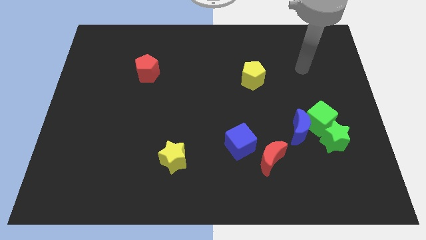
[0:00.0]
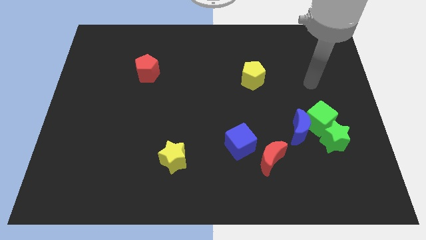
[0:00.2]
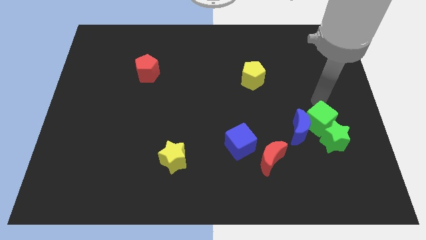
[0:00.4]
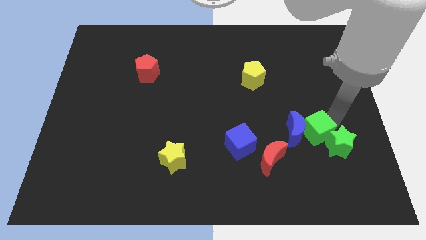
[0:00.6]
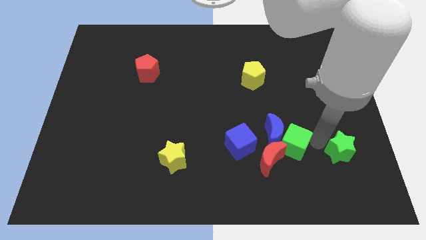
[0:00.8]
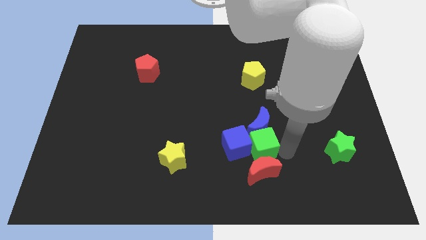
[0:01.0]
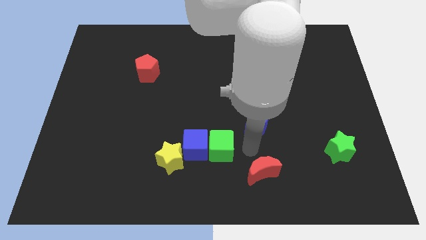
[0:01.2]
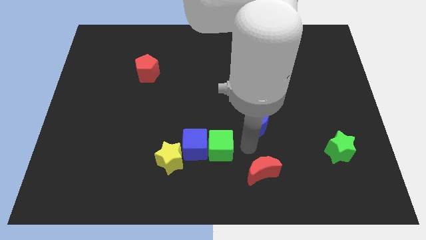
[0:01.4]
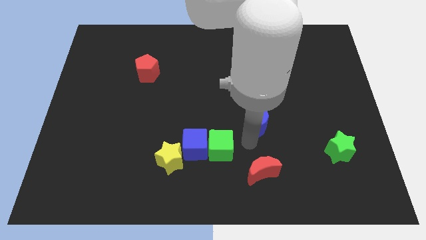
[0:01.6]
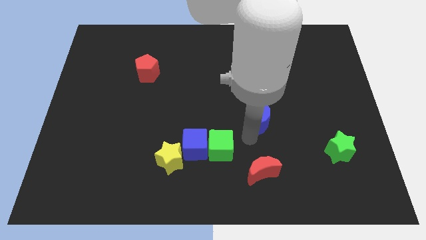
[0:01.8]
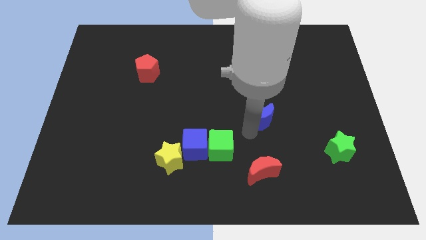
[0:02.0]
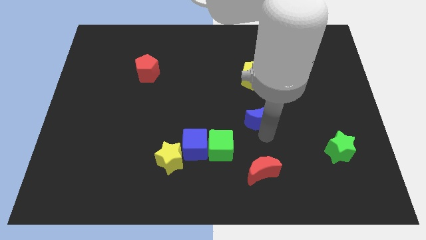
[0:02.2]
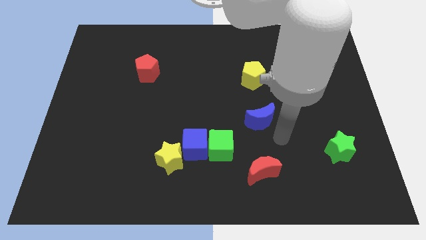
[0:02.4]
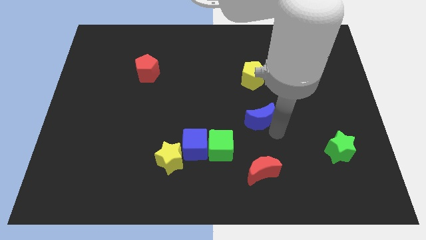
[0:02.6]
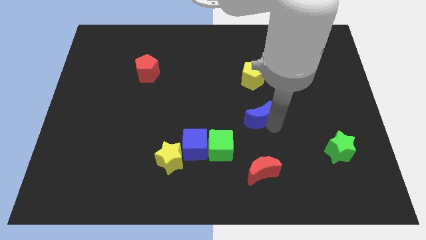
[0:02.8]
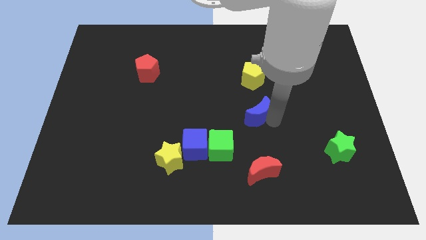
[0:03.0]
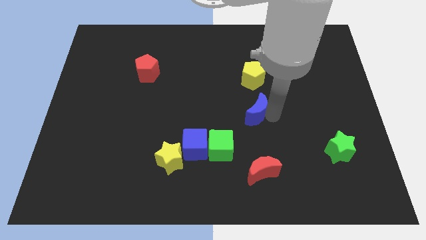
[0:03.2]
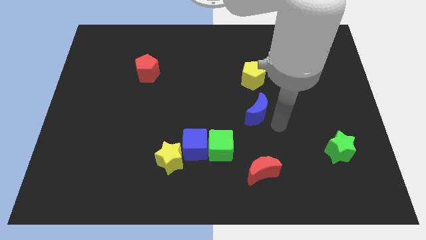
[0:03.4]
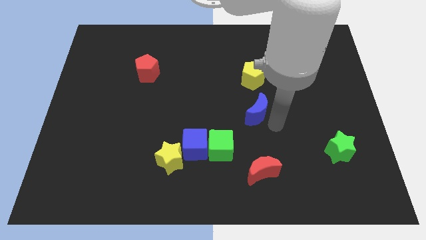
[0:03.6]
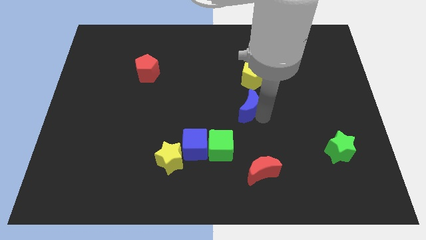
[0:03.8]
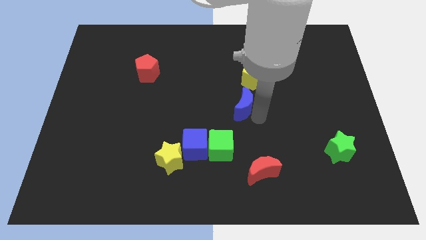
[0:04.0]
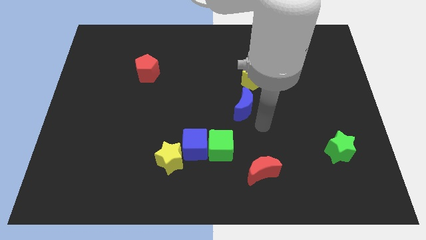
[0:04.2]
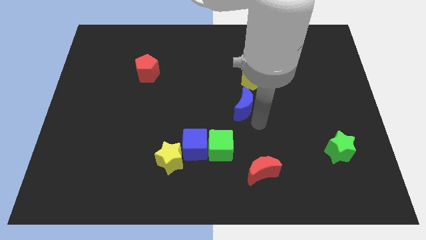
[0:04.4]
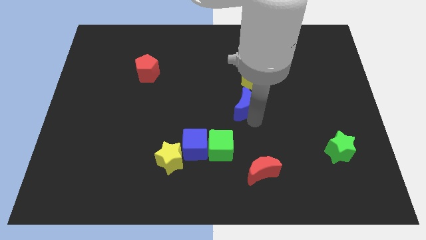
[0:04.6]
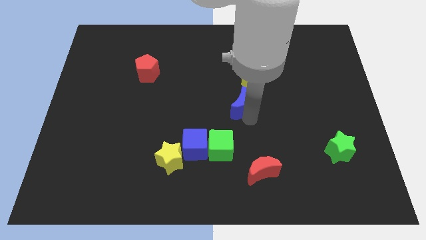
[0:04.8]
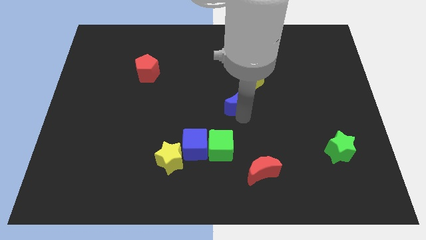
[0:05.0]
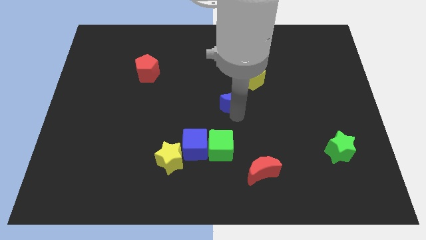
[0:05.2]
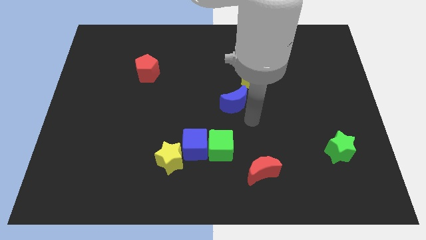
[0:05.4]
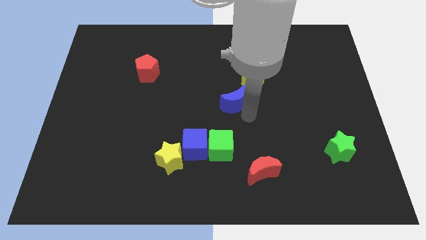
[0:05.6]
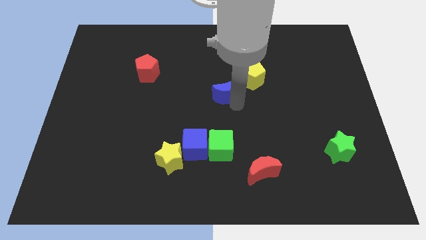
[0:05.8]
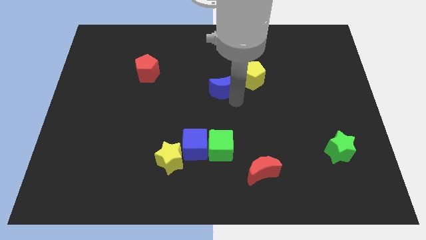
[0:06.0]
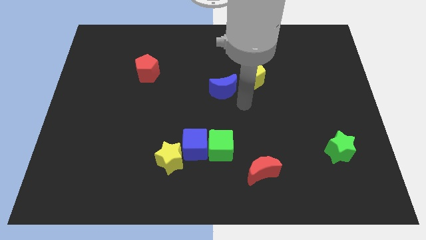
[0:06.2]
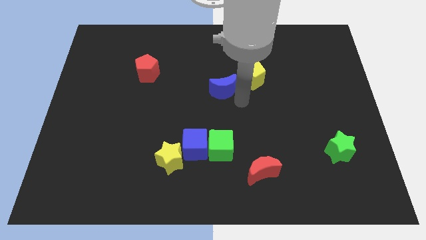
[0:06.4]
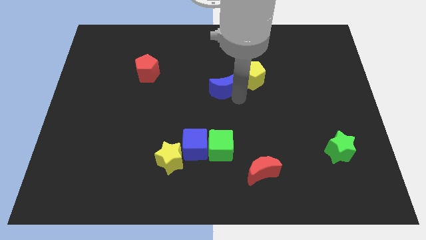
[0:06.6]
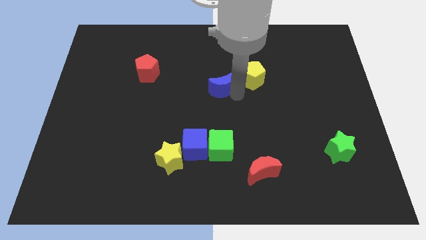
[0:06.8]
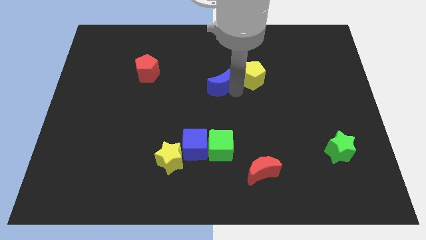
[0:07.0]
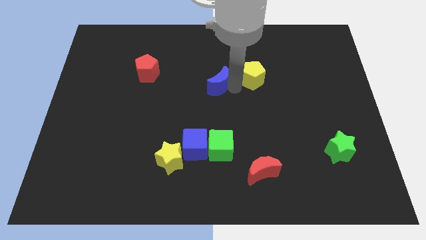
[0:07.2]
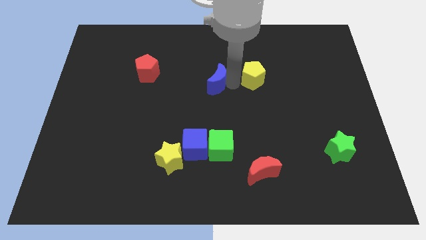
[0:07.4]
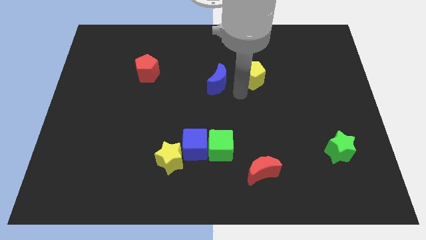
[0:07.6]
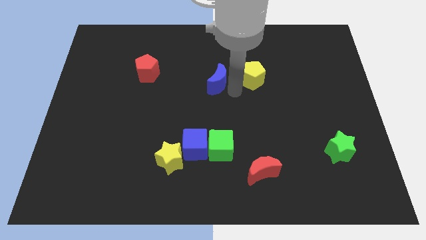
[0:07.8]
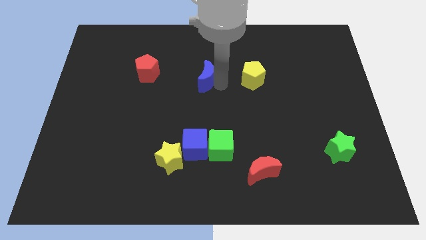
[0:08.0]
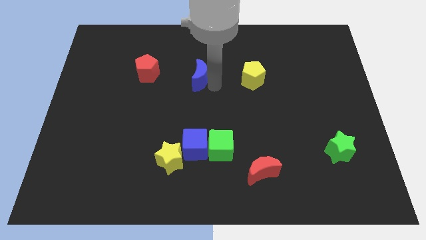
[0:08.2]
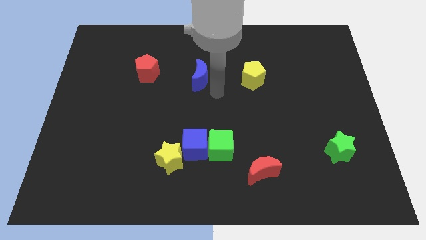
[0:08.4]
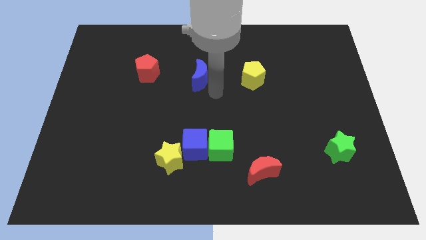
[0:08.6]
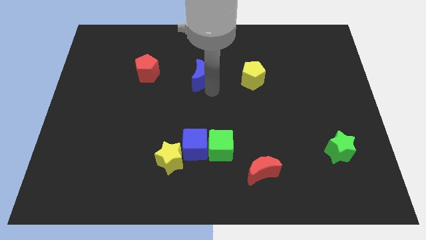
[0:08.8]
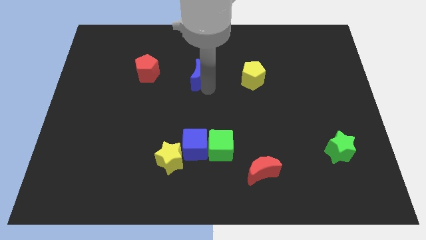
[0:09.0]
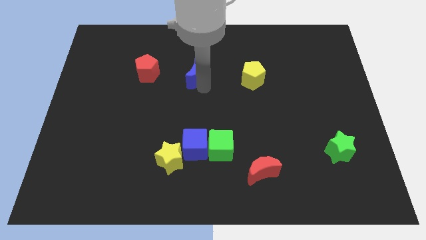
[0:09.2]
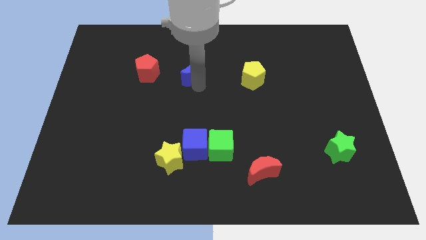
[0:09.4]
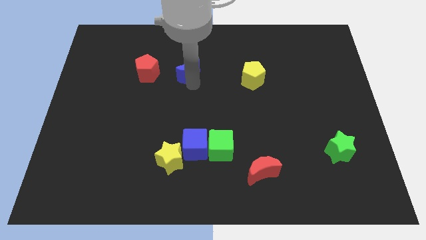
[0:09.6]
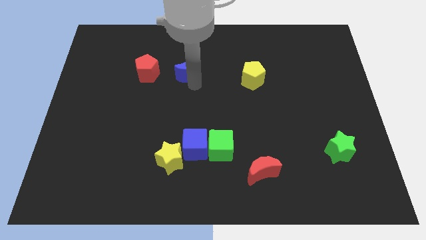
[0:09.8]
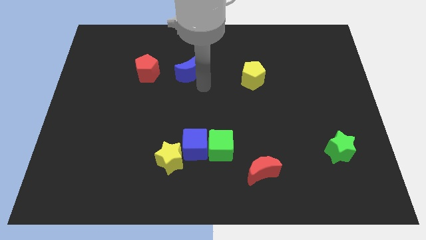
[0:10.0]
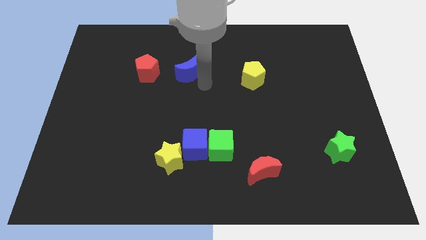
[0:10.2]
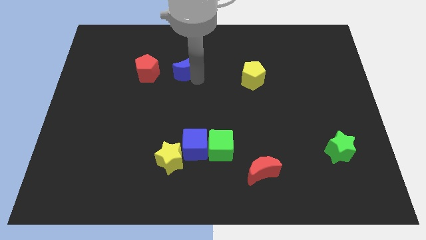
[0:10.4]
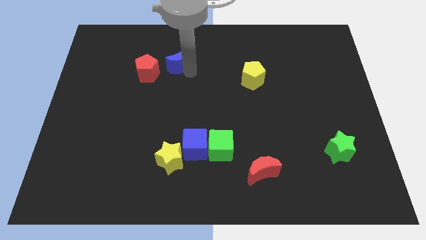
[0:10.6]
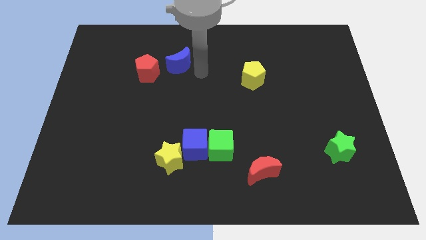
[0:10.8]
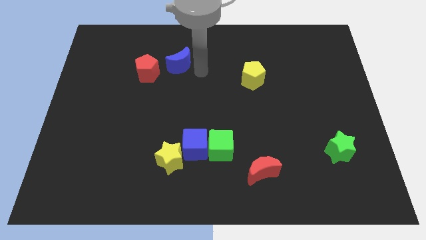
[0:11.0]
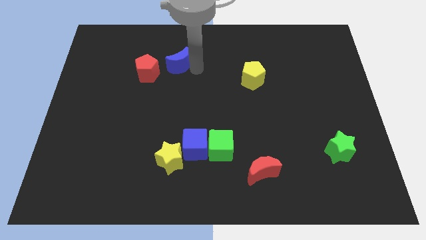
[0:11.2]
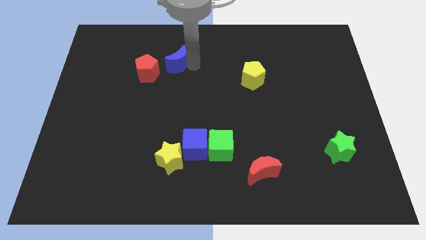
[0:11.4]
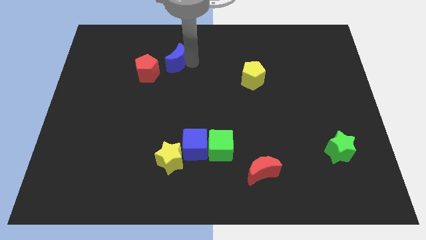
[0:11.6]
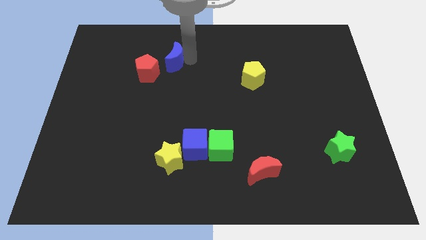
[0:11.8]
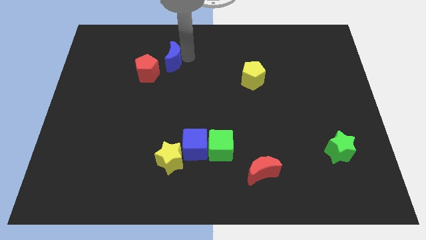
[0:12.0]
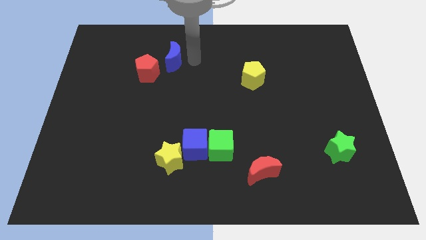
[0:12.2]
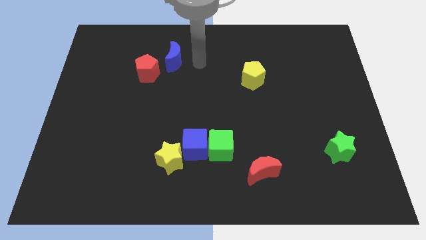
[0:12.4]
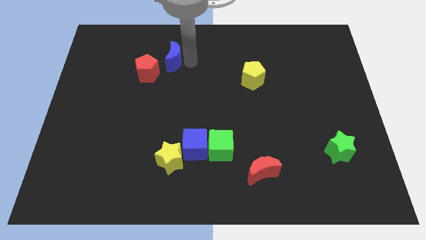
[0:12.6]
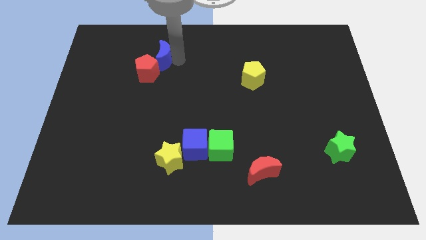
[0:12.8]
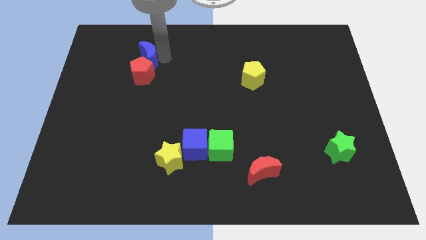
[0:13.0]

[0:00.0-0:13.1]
push the blue moon to the top left of the red pentagon

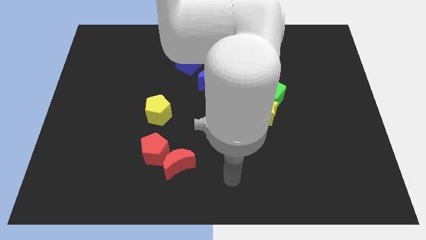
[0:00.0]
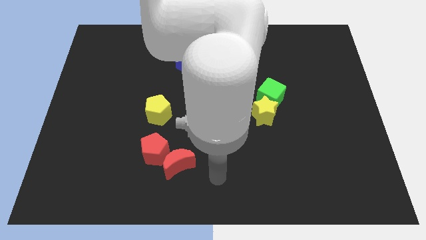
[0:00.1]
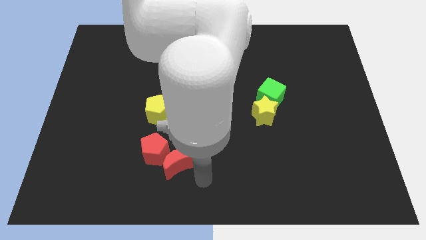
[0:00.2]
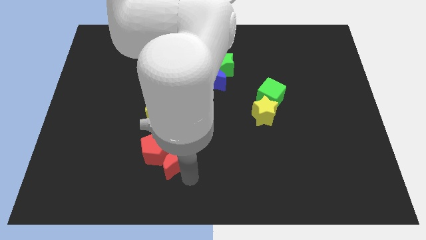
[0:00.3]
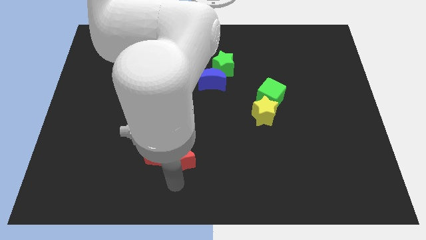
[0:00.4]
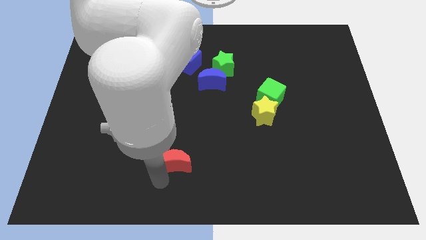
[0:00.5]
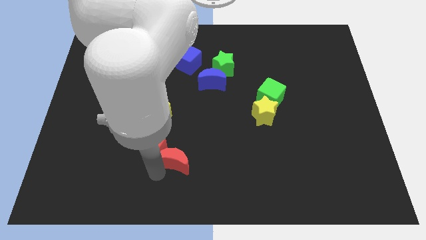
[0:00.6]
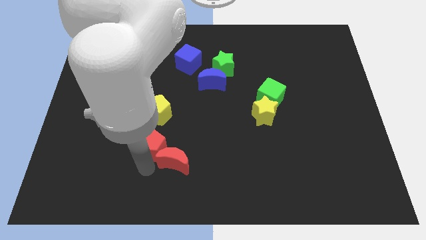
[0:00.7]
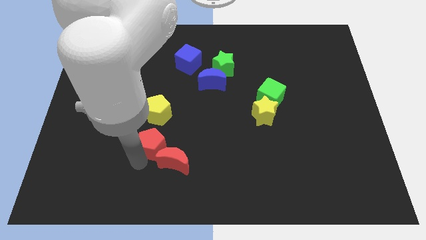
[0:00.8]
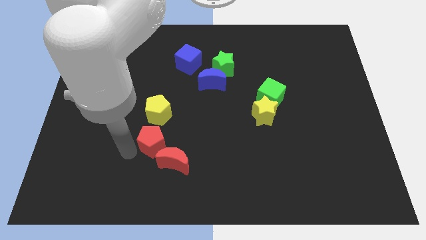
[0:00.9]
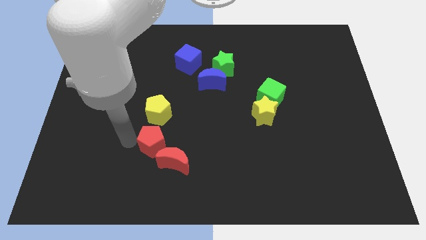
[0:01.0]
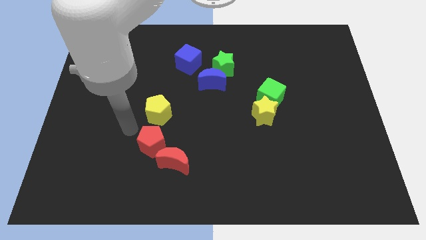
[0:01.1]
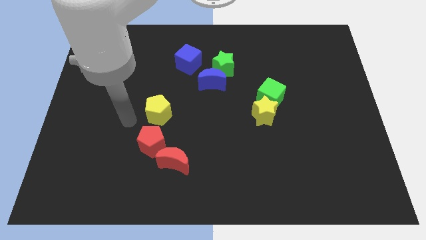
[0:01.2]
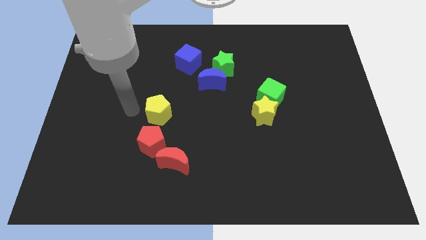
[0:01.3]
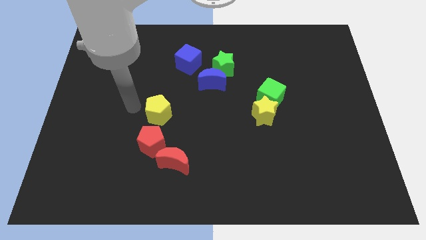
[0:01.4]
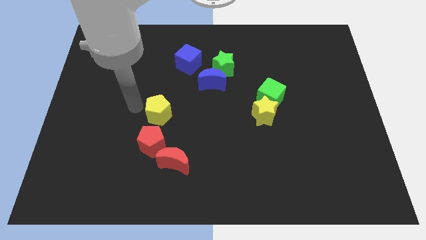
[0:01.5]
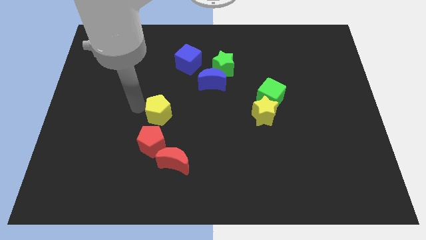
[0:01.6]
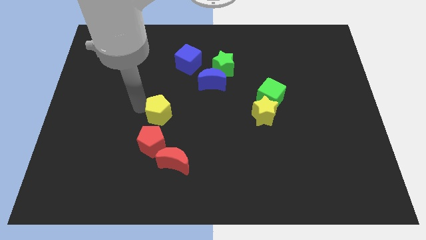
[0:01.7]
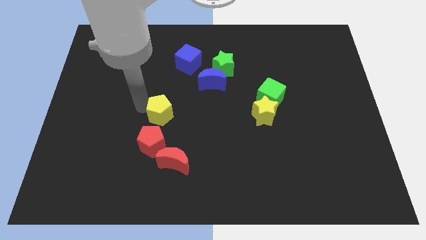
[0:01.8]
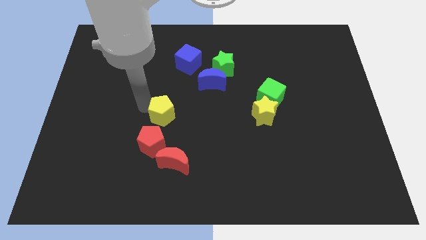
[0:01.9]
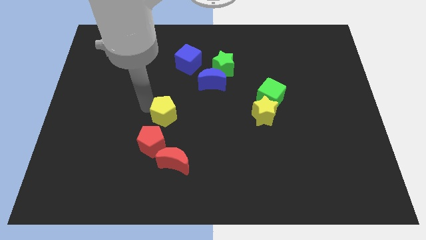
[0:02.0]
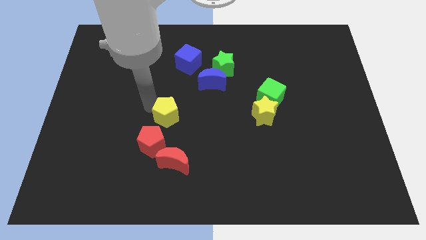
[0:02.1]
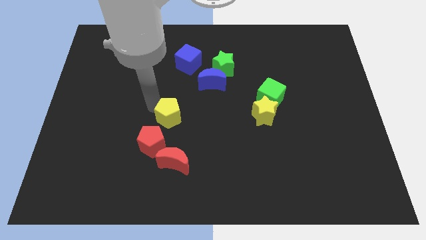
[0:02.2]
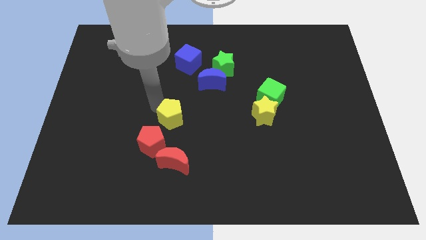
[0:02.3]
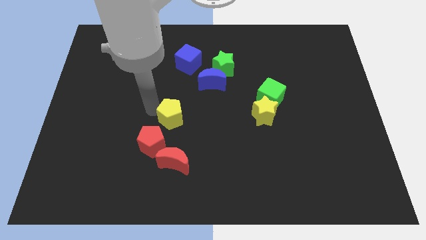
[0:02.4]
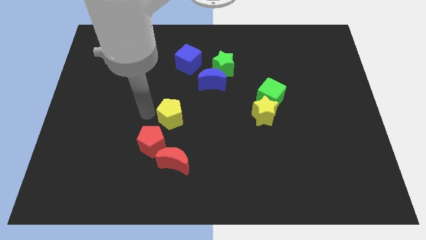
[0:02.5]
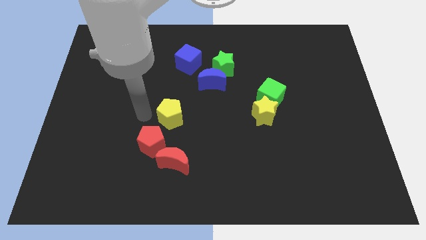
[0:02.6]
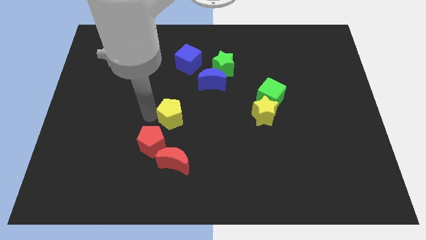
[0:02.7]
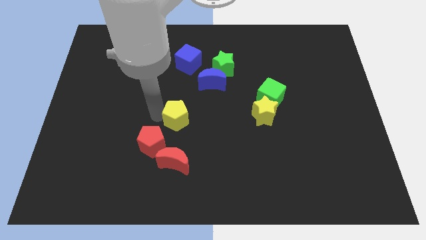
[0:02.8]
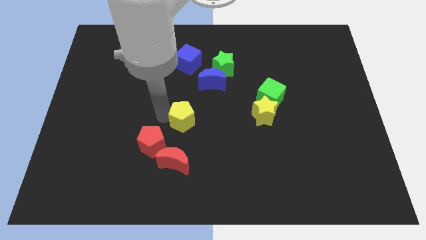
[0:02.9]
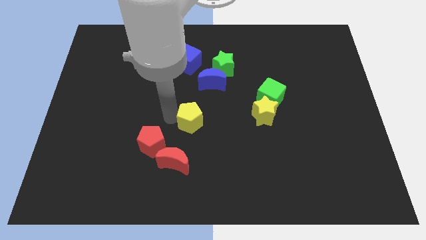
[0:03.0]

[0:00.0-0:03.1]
put the yellow pentagon to the bottom of the blue moon
